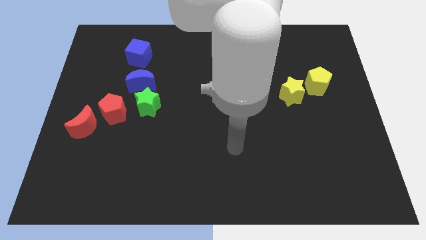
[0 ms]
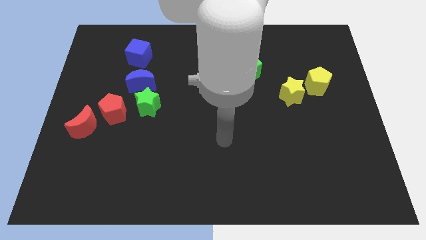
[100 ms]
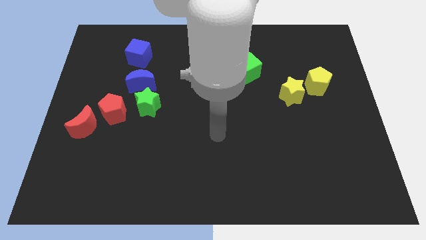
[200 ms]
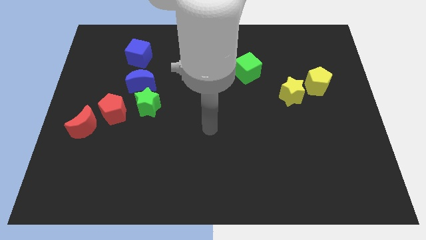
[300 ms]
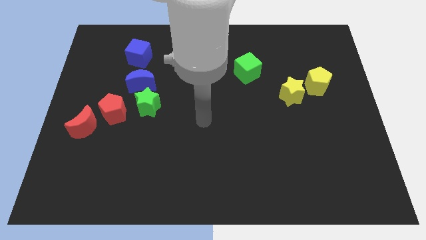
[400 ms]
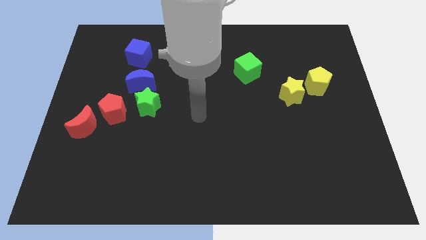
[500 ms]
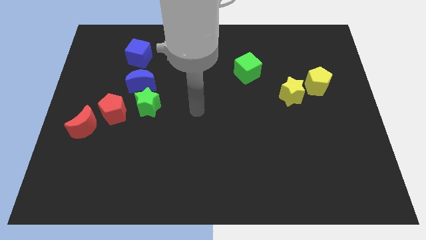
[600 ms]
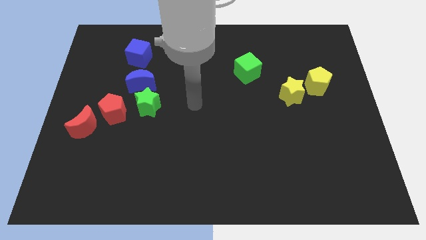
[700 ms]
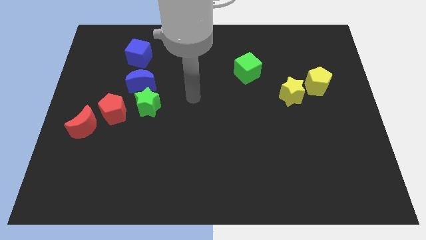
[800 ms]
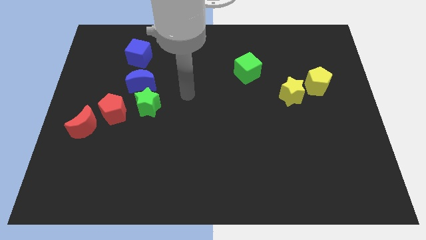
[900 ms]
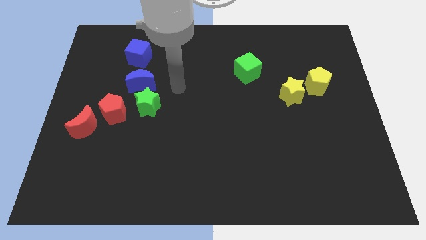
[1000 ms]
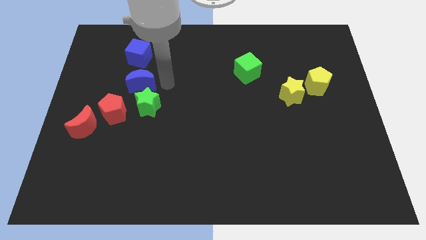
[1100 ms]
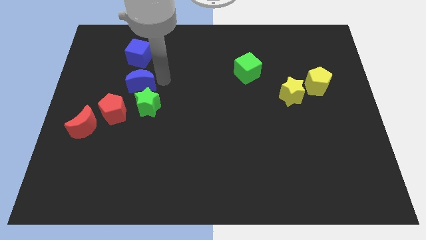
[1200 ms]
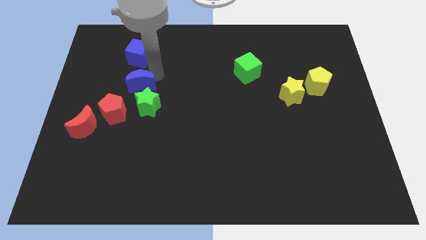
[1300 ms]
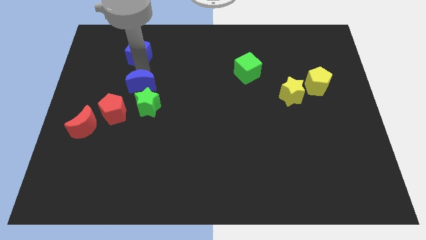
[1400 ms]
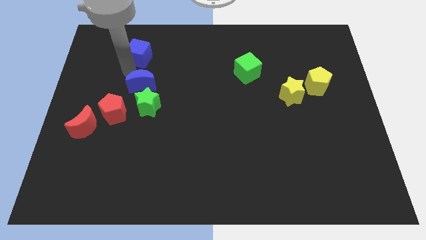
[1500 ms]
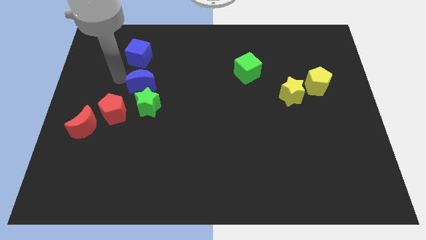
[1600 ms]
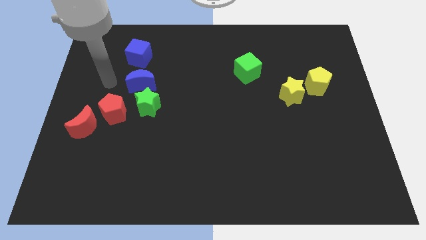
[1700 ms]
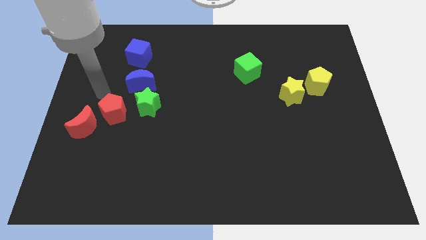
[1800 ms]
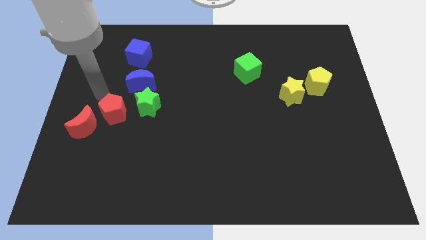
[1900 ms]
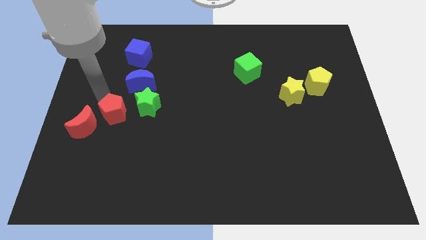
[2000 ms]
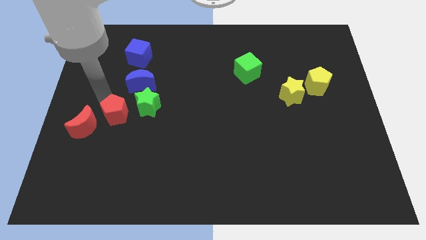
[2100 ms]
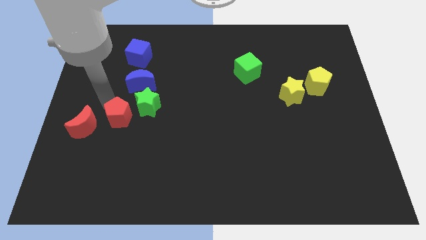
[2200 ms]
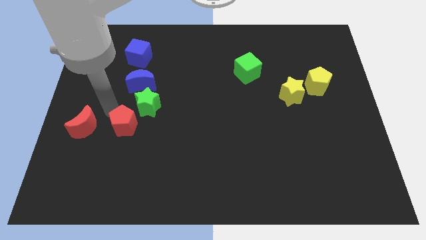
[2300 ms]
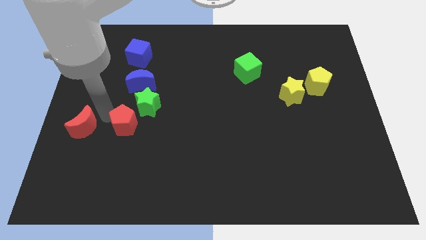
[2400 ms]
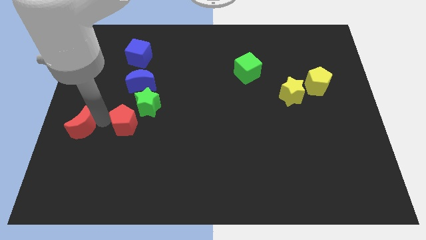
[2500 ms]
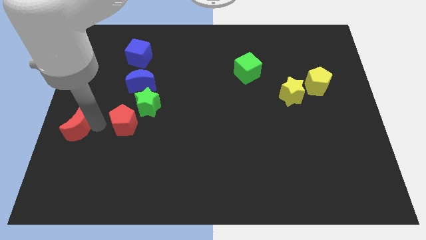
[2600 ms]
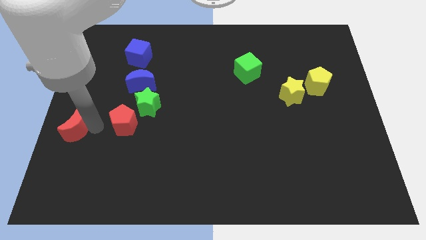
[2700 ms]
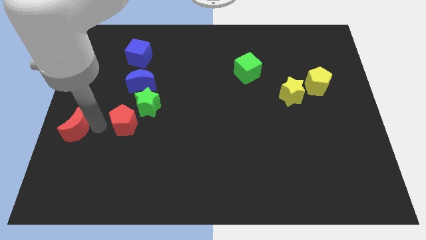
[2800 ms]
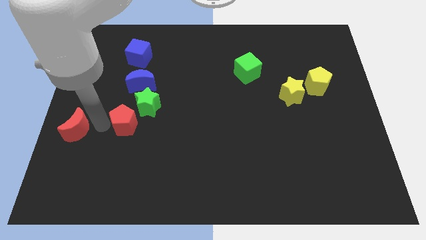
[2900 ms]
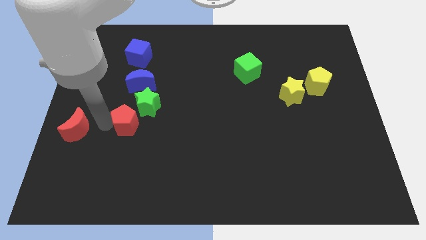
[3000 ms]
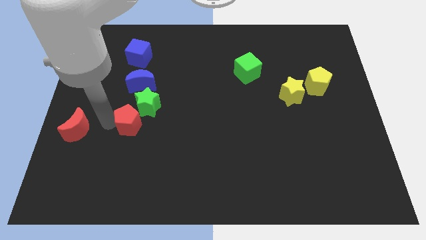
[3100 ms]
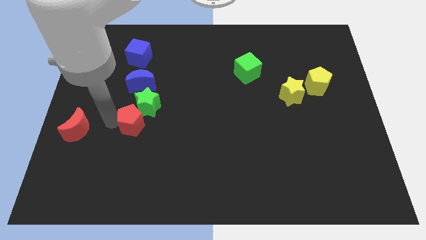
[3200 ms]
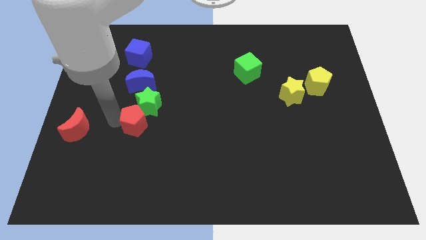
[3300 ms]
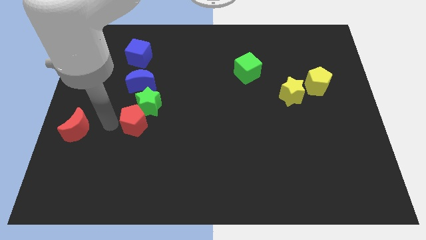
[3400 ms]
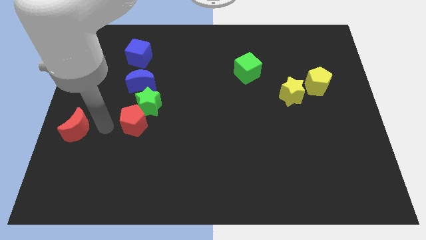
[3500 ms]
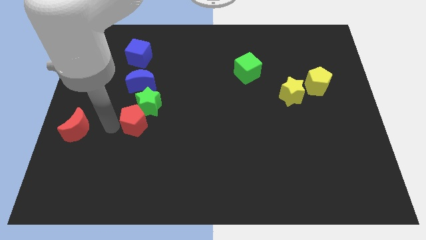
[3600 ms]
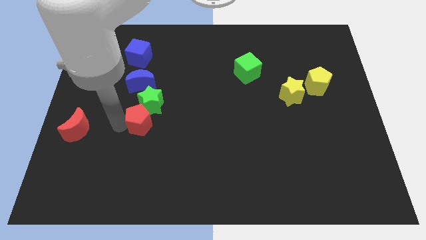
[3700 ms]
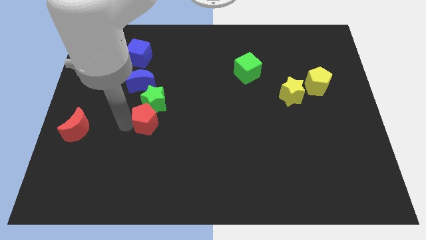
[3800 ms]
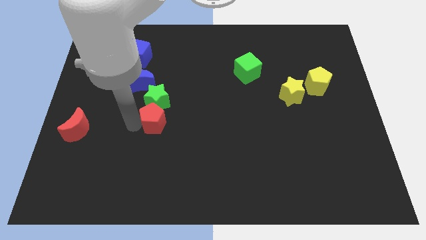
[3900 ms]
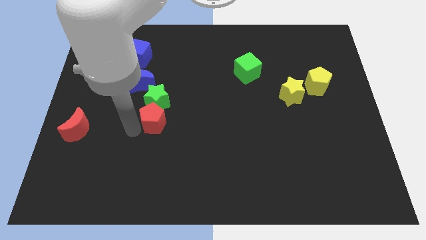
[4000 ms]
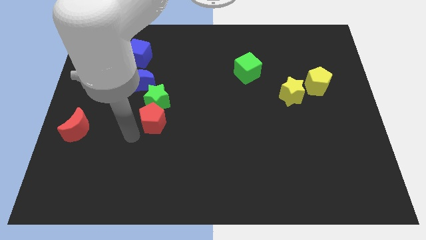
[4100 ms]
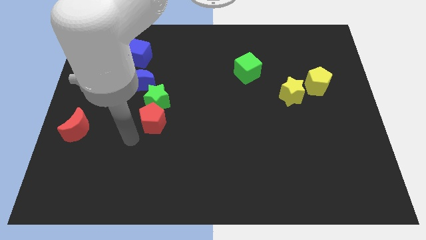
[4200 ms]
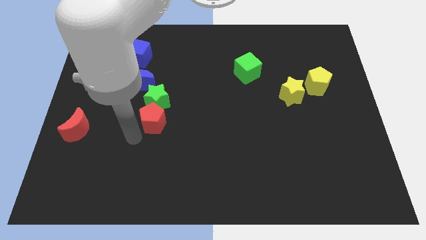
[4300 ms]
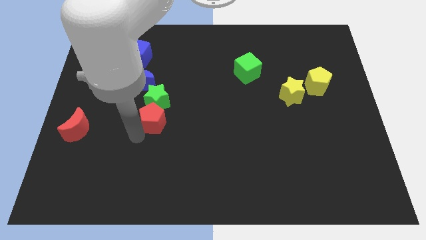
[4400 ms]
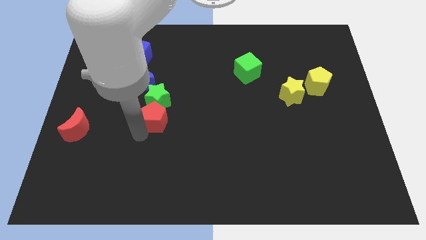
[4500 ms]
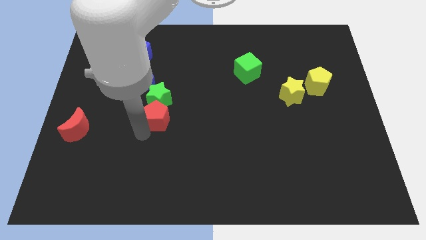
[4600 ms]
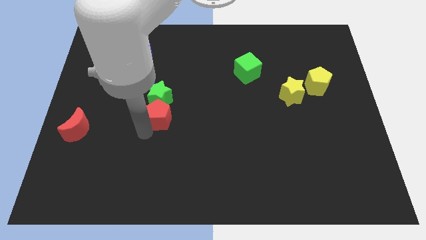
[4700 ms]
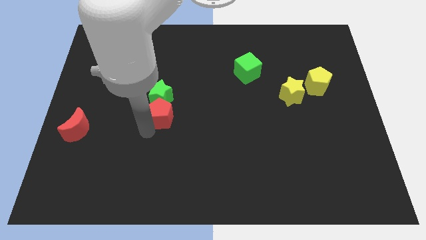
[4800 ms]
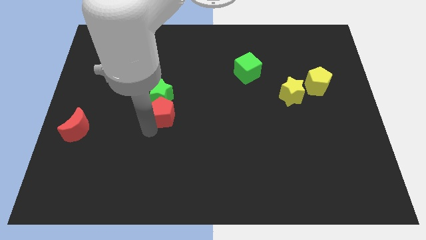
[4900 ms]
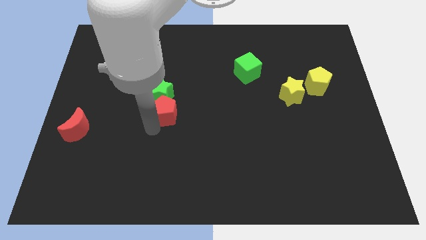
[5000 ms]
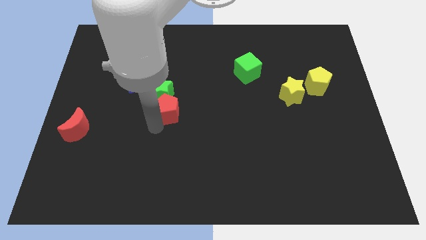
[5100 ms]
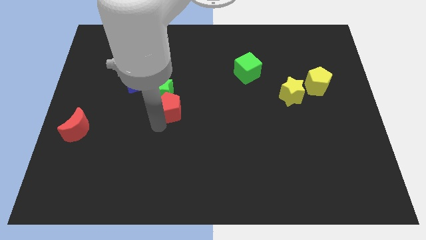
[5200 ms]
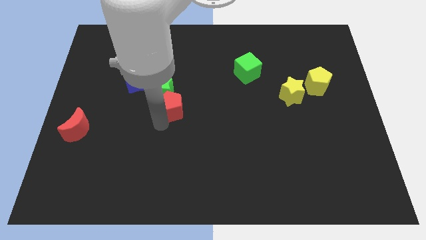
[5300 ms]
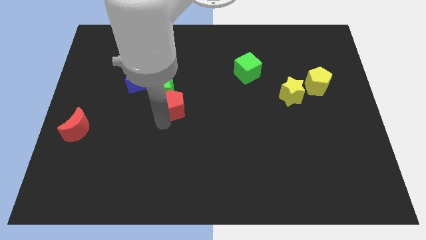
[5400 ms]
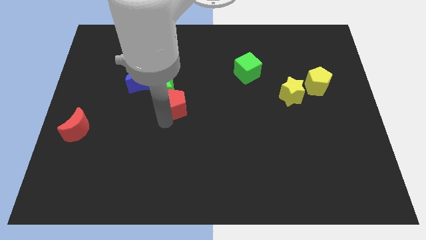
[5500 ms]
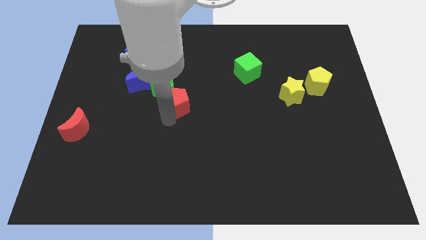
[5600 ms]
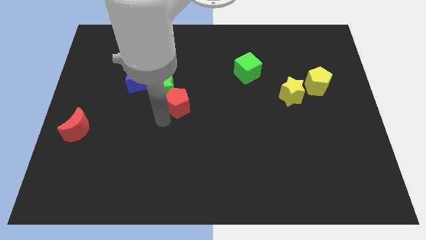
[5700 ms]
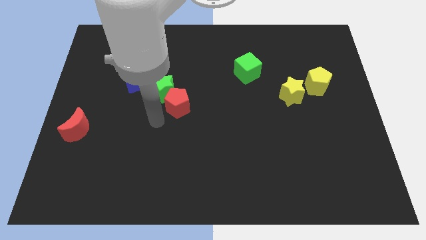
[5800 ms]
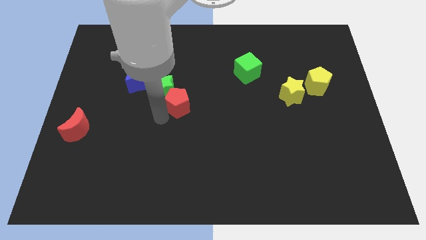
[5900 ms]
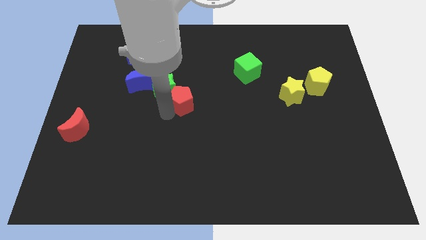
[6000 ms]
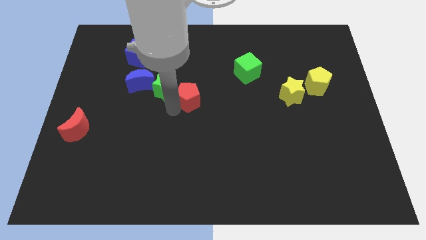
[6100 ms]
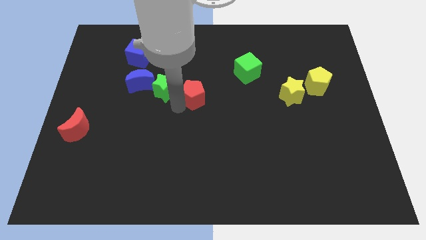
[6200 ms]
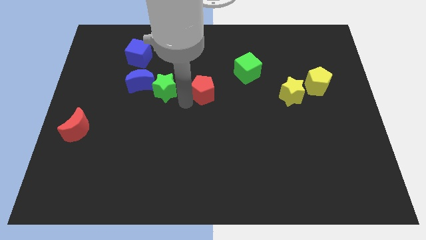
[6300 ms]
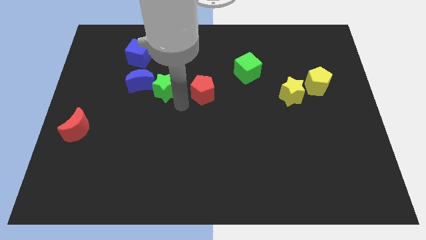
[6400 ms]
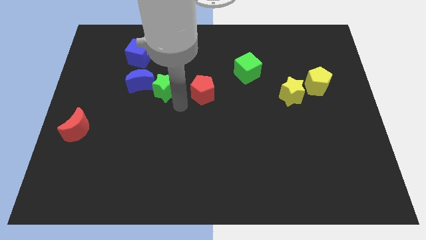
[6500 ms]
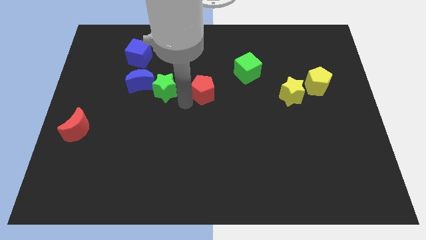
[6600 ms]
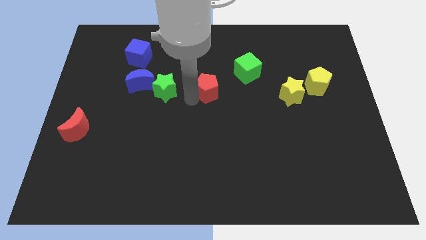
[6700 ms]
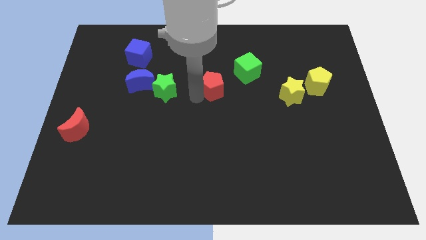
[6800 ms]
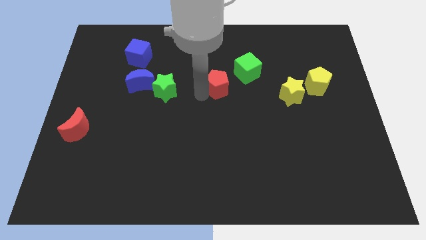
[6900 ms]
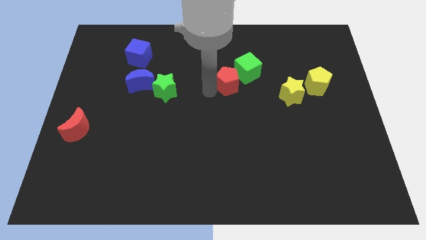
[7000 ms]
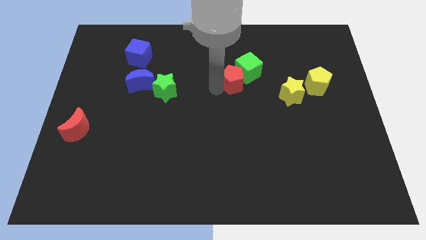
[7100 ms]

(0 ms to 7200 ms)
put the red pentagon towards the green cube

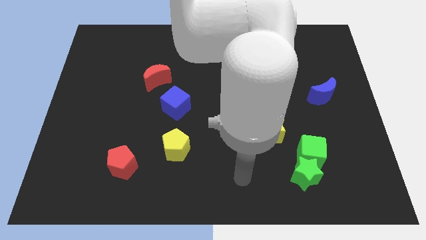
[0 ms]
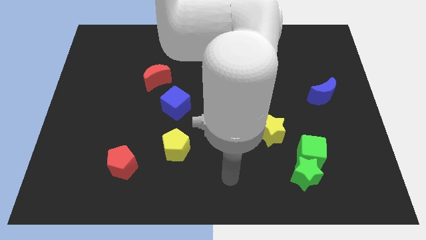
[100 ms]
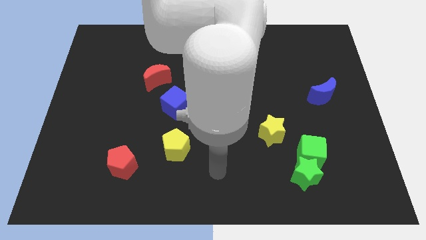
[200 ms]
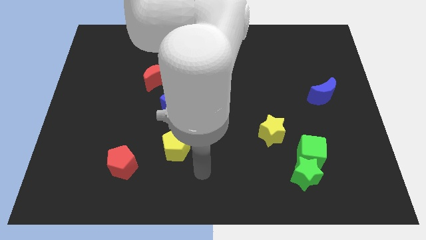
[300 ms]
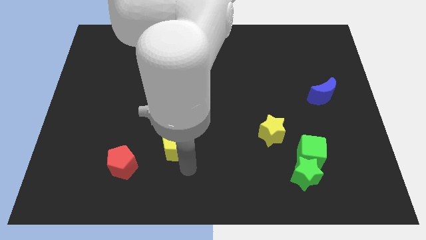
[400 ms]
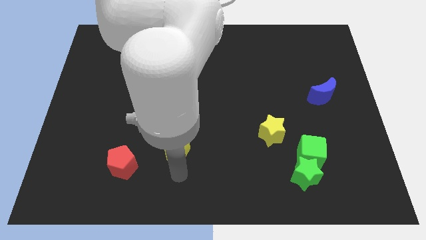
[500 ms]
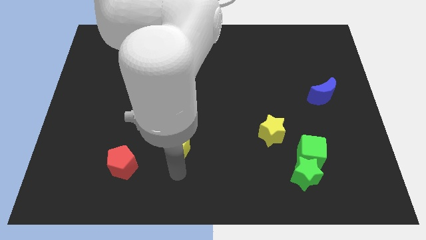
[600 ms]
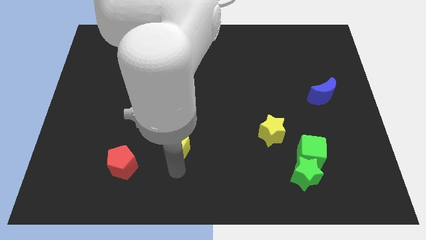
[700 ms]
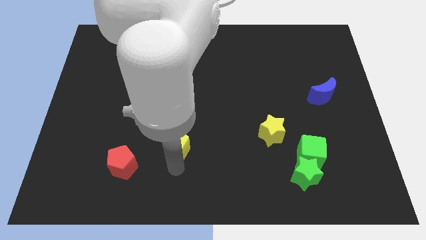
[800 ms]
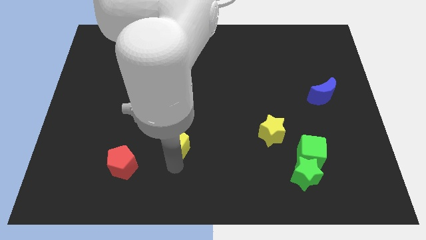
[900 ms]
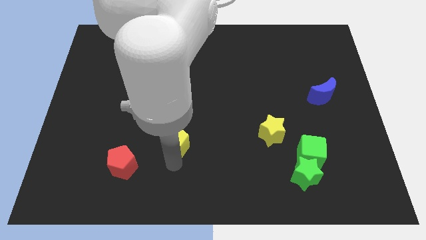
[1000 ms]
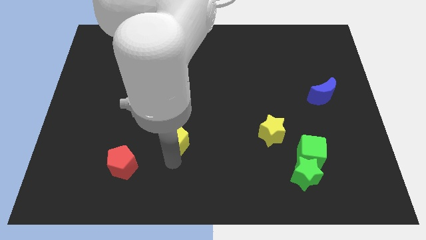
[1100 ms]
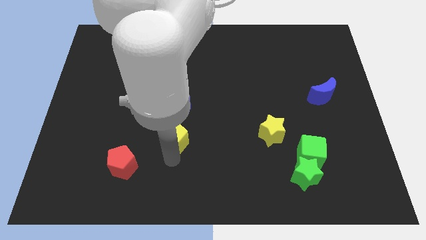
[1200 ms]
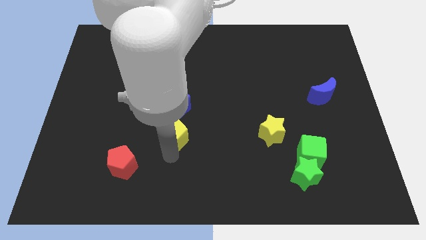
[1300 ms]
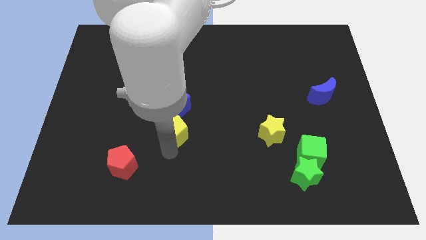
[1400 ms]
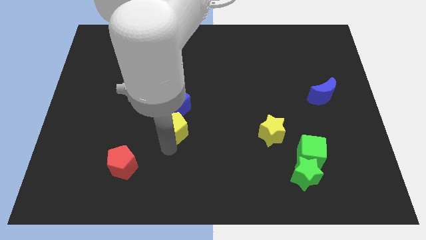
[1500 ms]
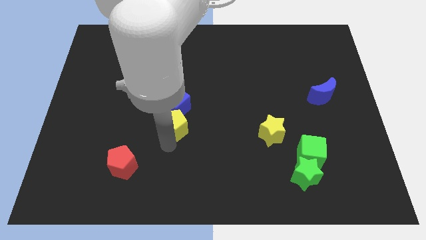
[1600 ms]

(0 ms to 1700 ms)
move the yellow pentagon to the blue cube
